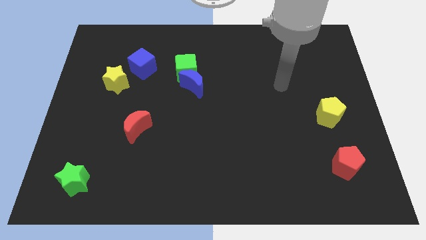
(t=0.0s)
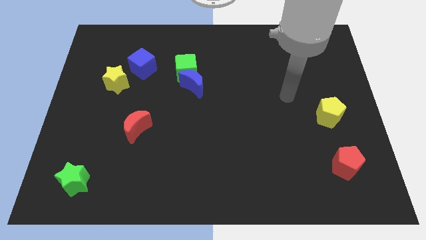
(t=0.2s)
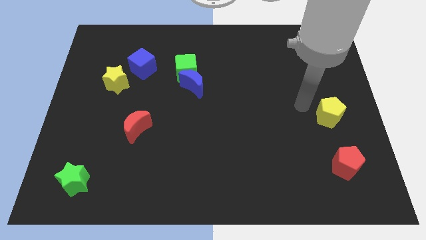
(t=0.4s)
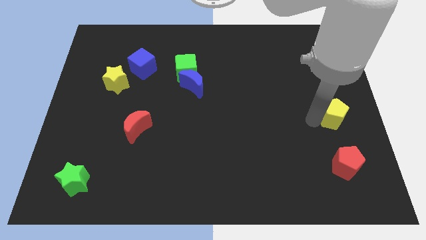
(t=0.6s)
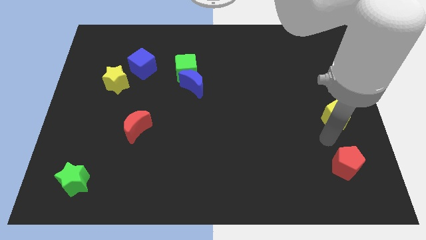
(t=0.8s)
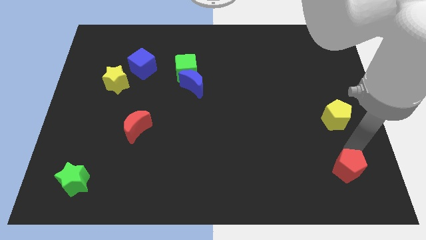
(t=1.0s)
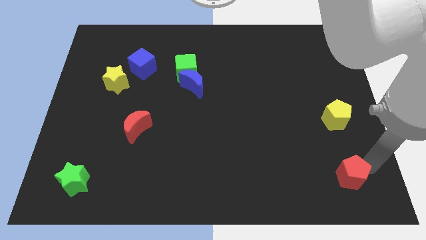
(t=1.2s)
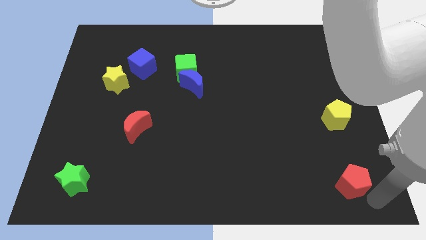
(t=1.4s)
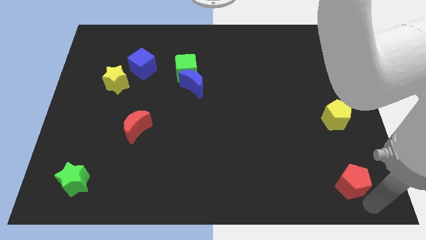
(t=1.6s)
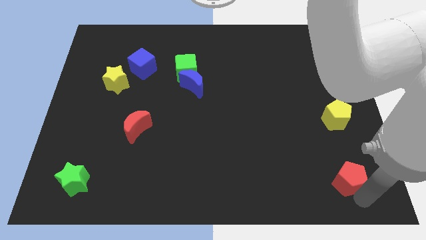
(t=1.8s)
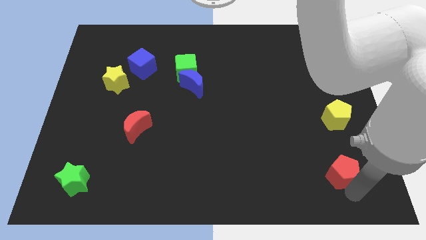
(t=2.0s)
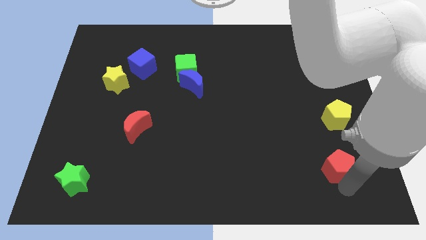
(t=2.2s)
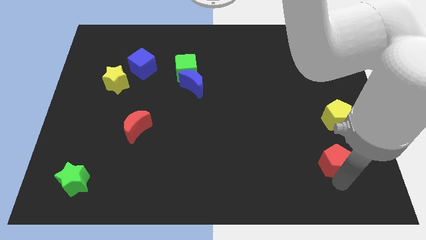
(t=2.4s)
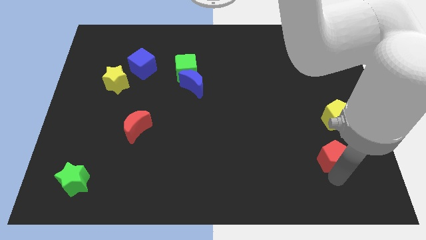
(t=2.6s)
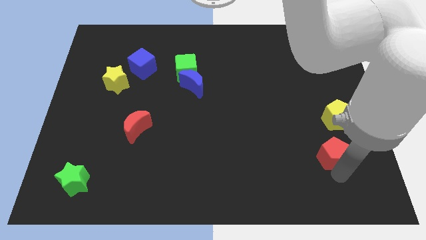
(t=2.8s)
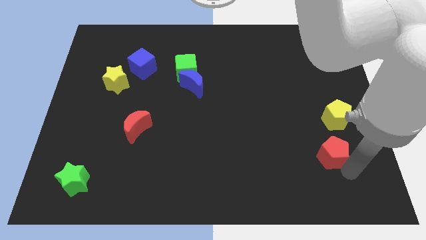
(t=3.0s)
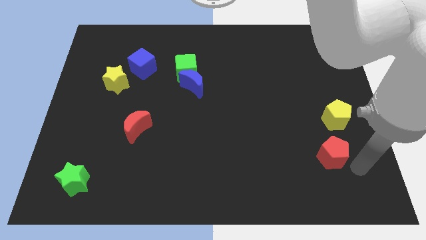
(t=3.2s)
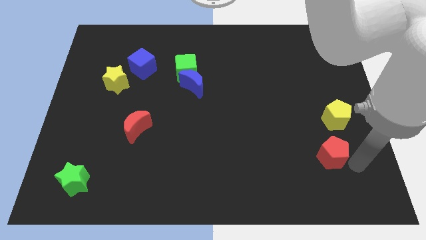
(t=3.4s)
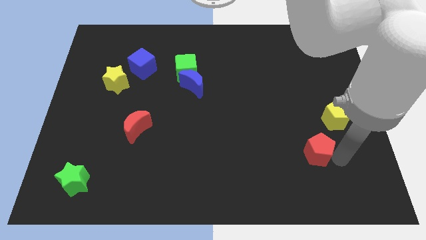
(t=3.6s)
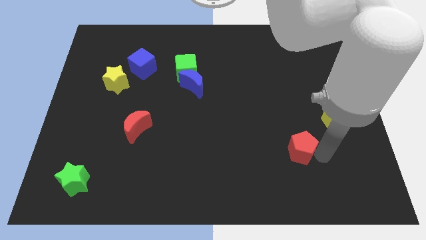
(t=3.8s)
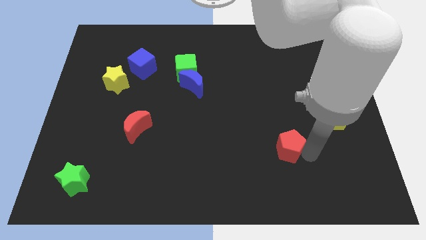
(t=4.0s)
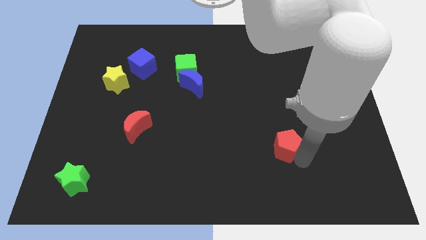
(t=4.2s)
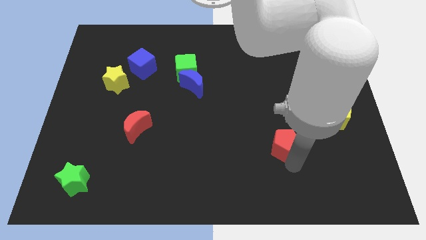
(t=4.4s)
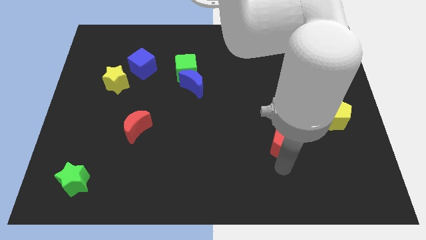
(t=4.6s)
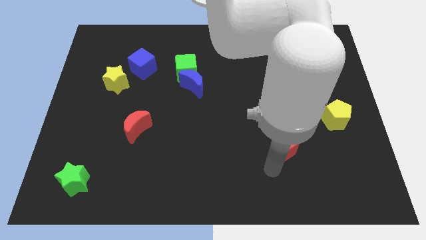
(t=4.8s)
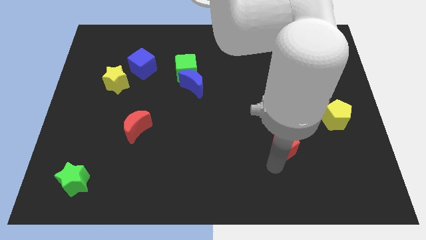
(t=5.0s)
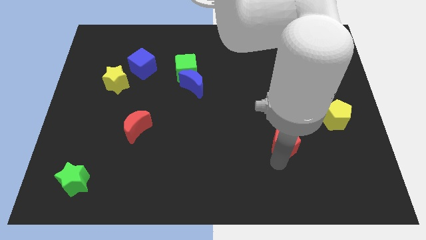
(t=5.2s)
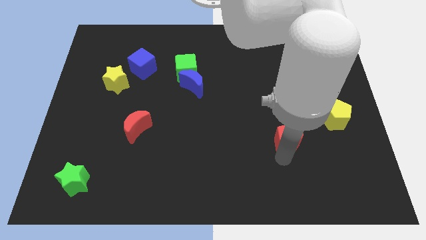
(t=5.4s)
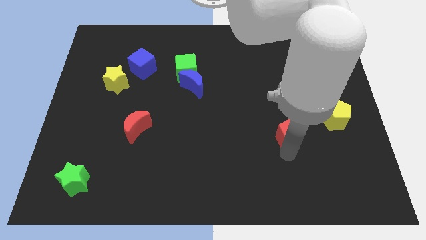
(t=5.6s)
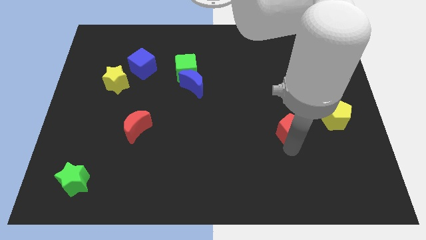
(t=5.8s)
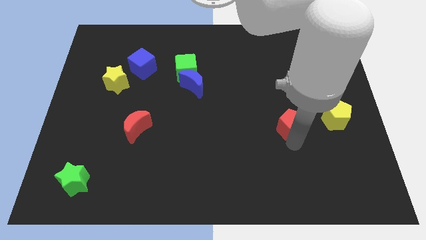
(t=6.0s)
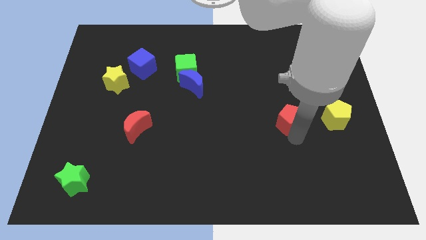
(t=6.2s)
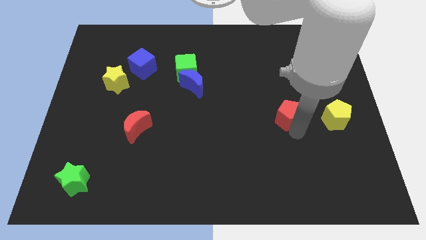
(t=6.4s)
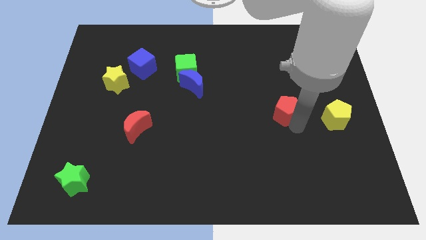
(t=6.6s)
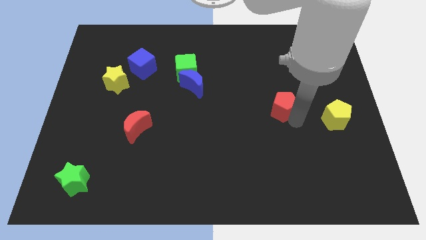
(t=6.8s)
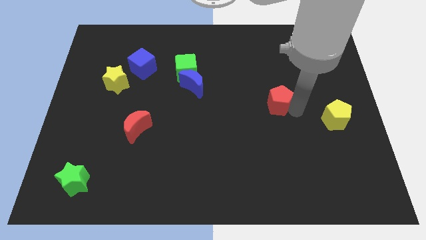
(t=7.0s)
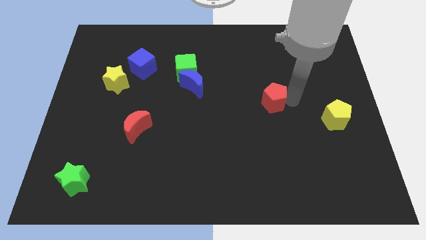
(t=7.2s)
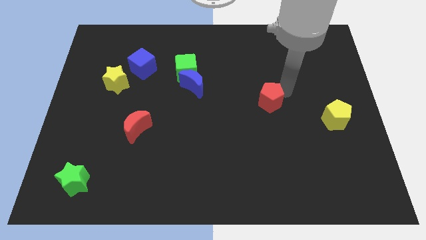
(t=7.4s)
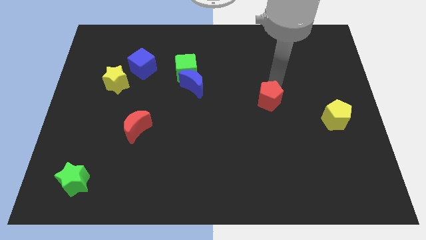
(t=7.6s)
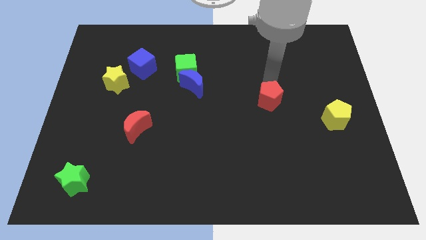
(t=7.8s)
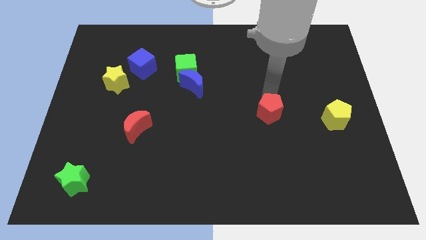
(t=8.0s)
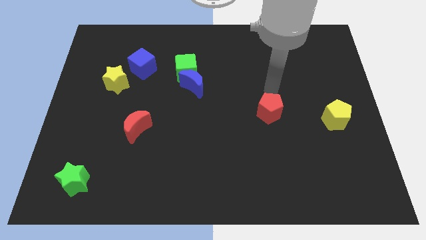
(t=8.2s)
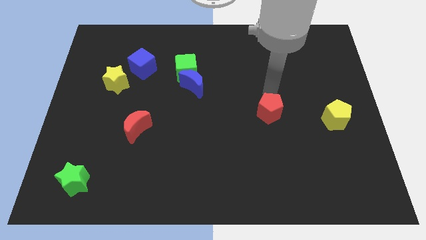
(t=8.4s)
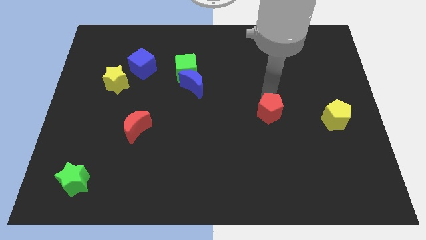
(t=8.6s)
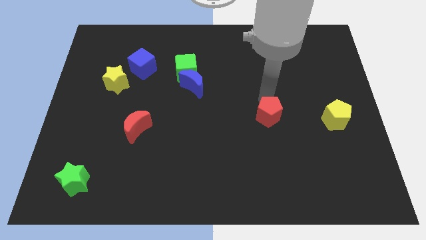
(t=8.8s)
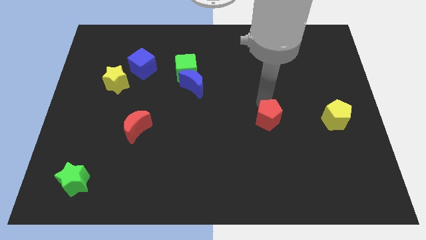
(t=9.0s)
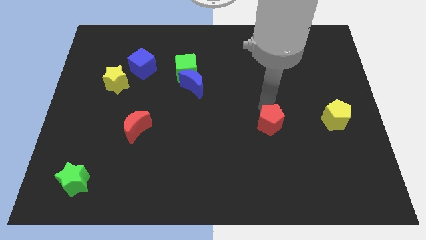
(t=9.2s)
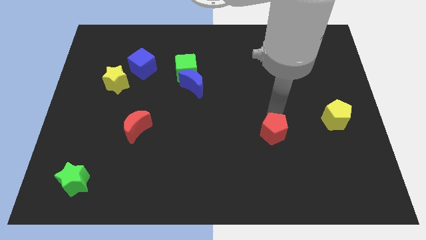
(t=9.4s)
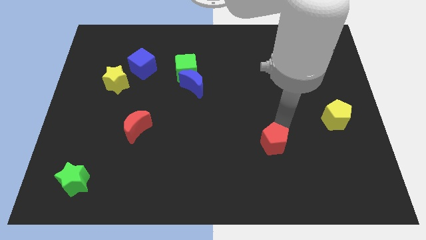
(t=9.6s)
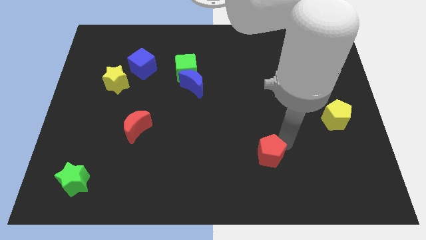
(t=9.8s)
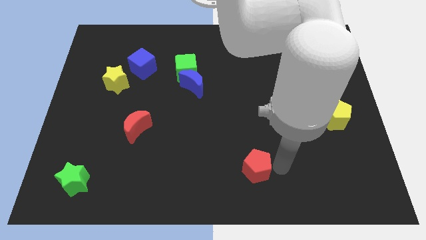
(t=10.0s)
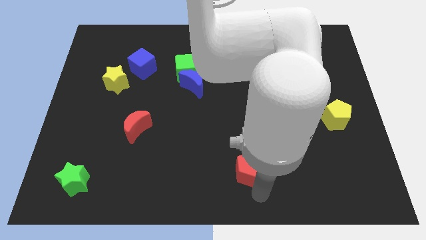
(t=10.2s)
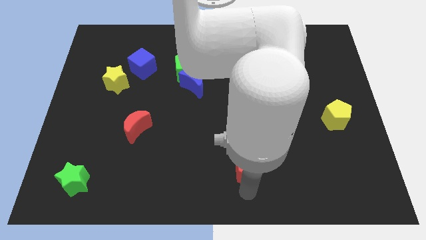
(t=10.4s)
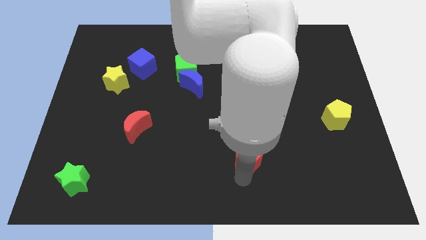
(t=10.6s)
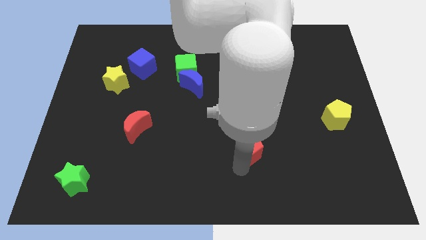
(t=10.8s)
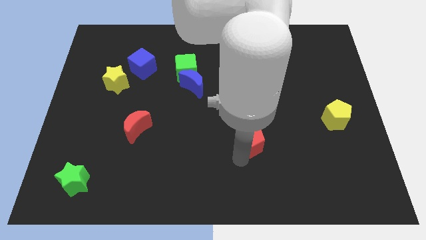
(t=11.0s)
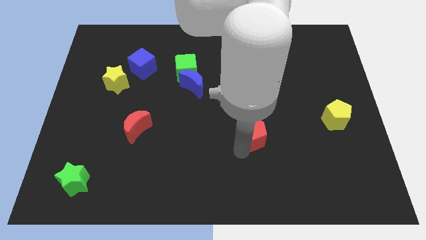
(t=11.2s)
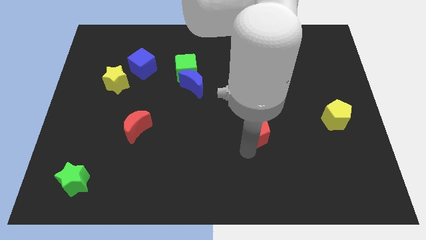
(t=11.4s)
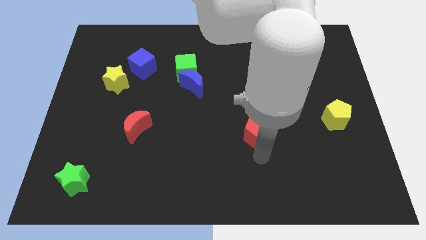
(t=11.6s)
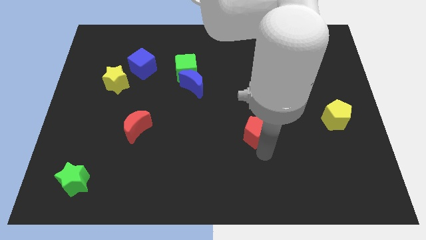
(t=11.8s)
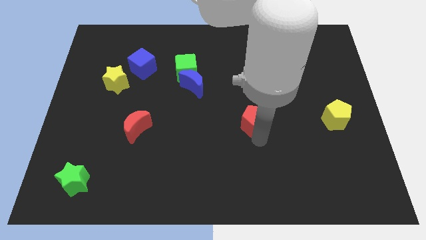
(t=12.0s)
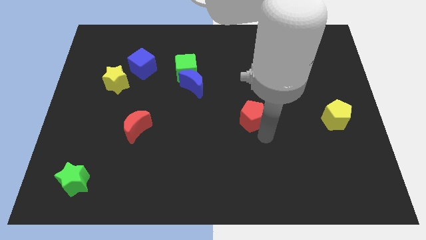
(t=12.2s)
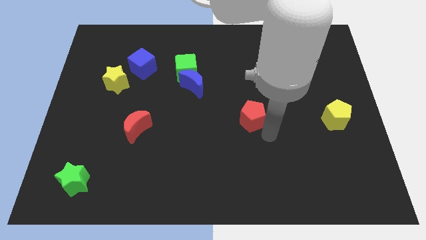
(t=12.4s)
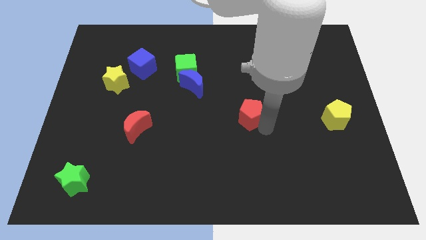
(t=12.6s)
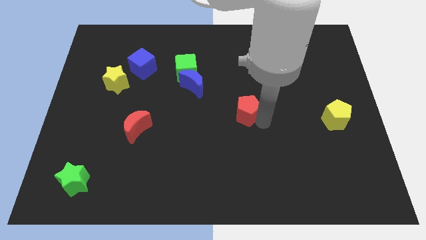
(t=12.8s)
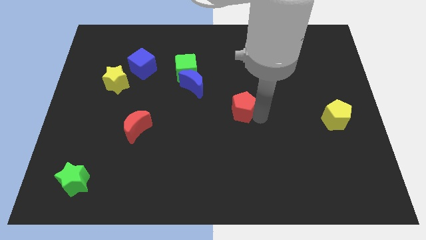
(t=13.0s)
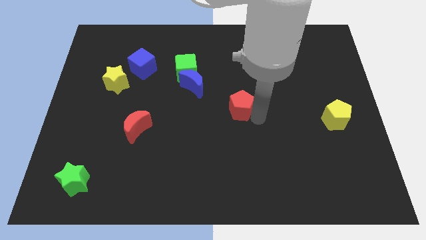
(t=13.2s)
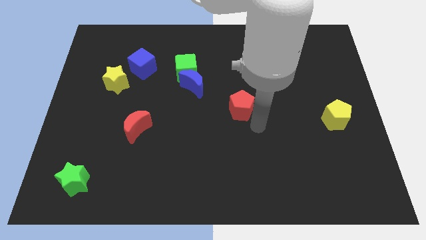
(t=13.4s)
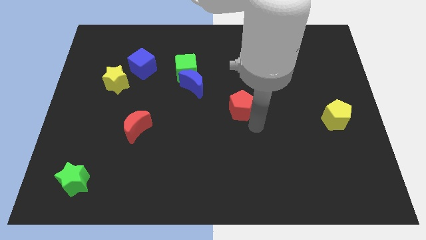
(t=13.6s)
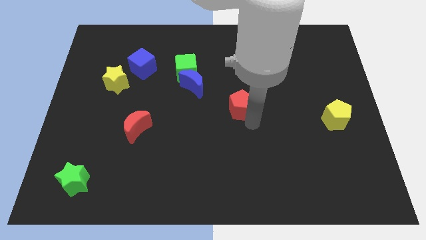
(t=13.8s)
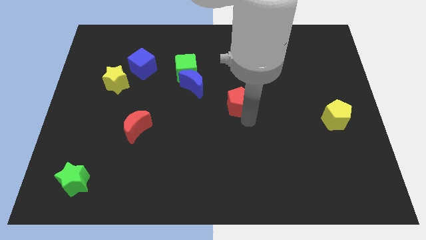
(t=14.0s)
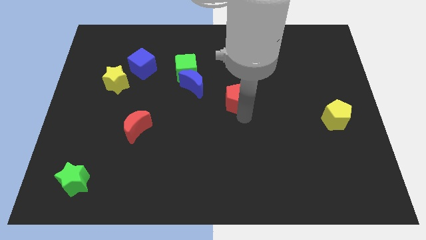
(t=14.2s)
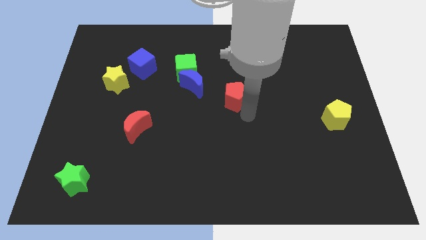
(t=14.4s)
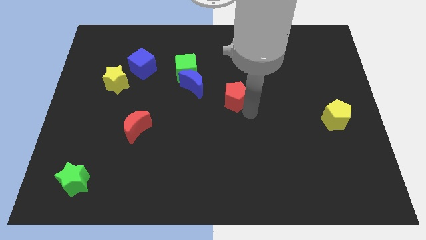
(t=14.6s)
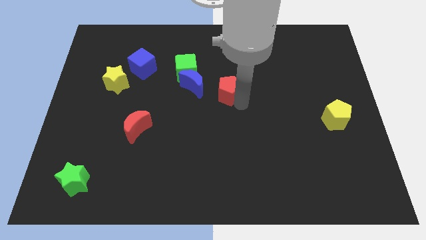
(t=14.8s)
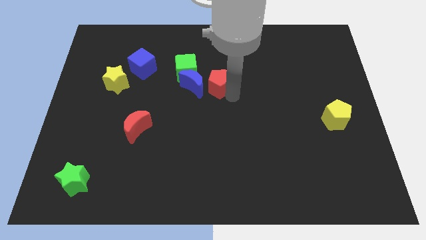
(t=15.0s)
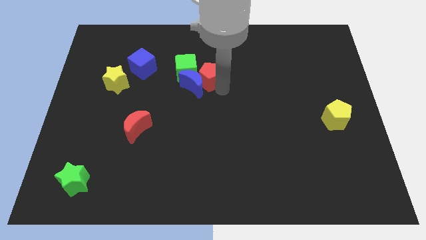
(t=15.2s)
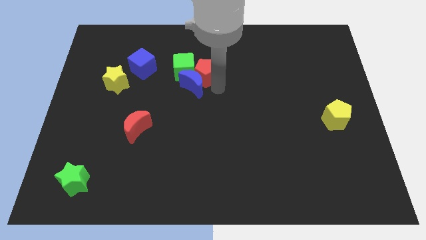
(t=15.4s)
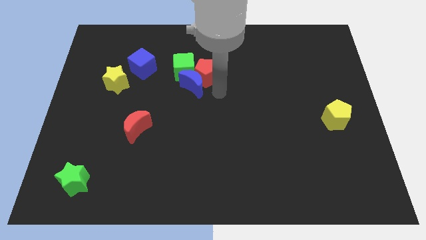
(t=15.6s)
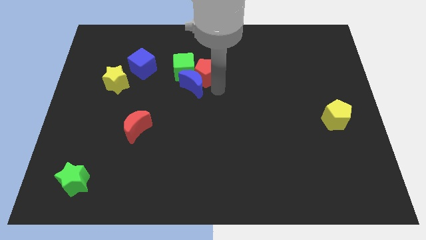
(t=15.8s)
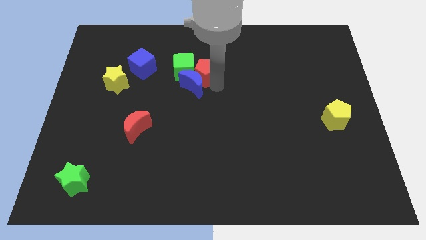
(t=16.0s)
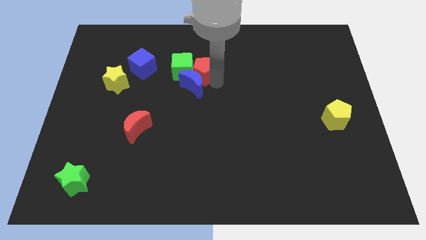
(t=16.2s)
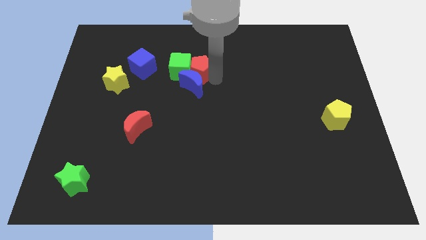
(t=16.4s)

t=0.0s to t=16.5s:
slide the red pentagon to the top left of the blue moon
